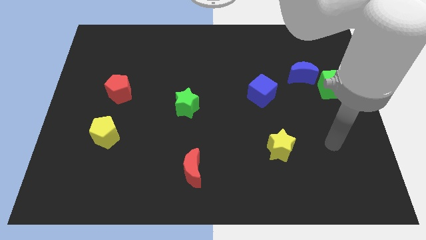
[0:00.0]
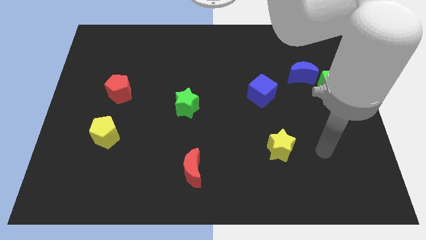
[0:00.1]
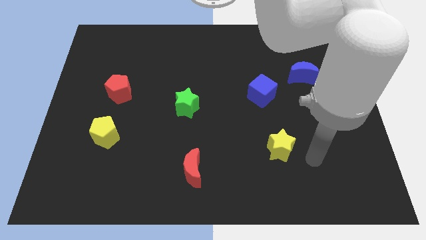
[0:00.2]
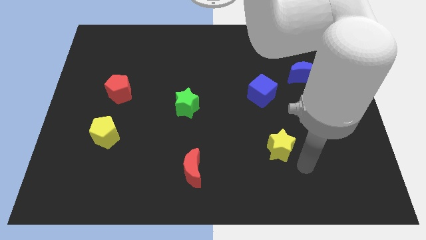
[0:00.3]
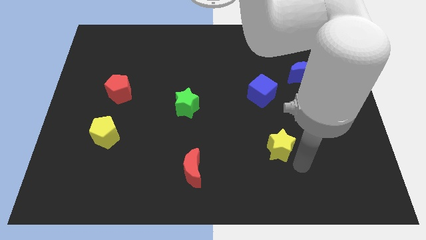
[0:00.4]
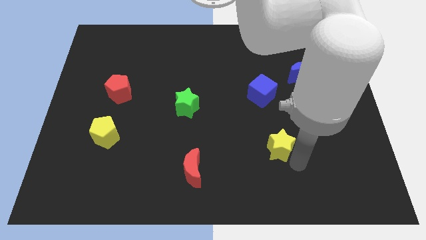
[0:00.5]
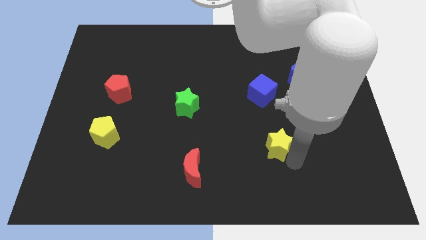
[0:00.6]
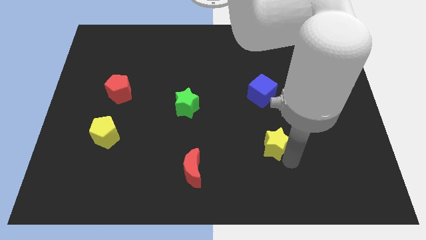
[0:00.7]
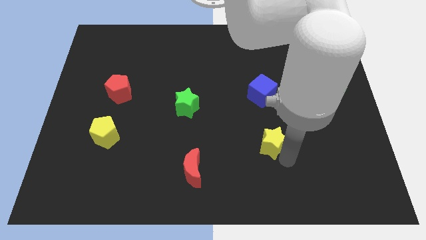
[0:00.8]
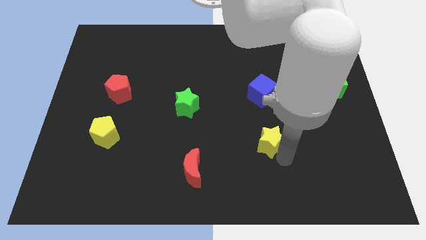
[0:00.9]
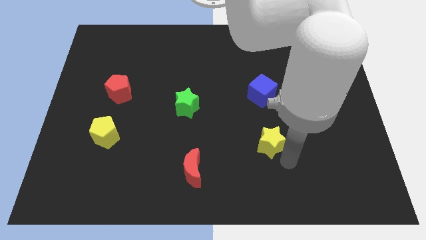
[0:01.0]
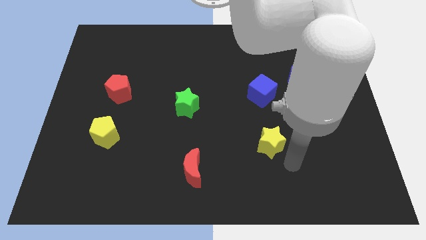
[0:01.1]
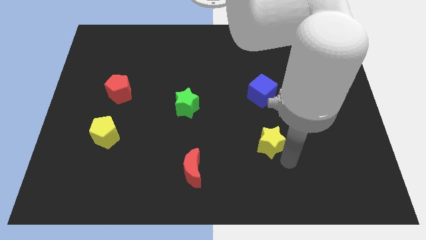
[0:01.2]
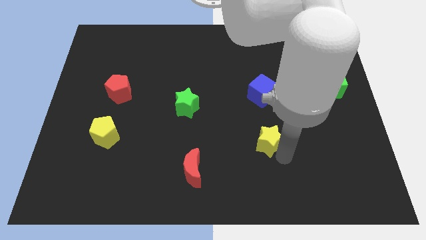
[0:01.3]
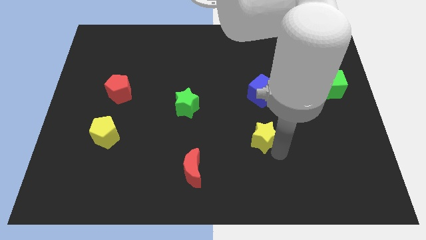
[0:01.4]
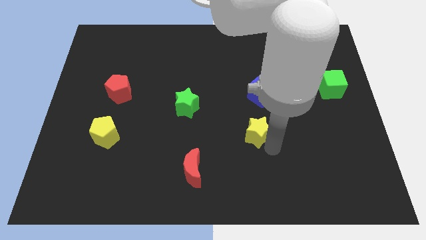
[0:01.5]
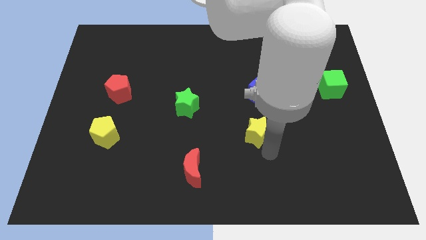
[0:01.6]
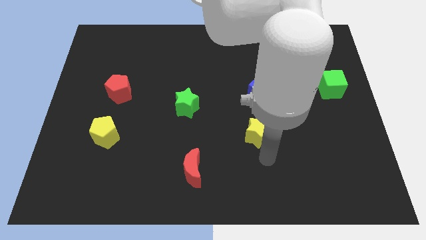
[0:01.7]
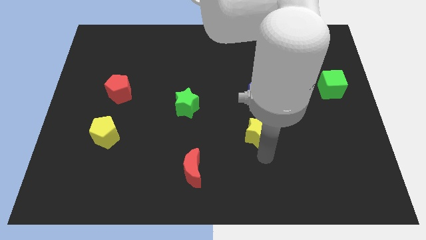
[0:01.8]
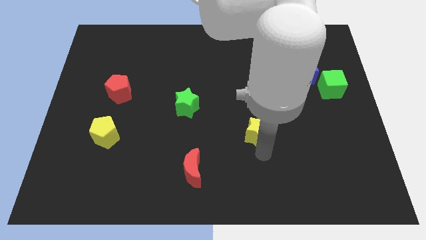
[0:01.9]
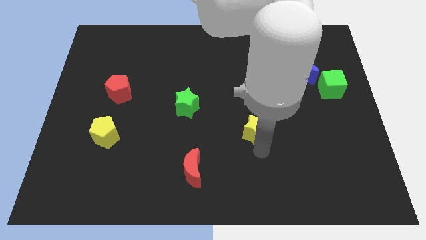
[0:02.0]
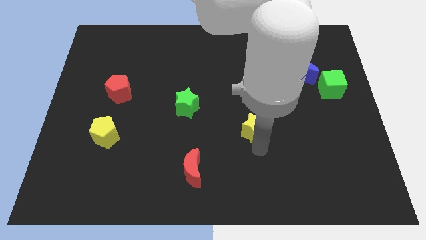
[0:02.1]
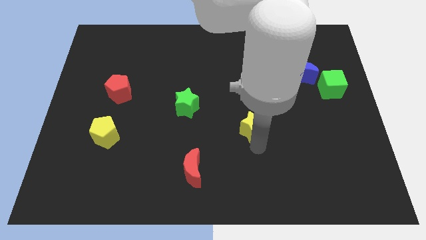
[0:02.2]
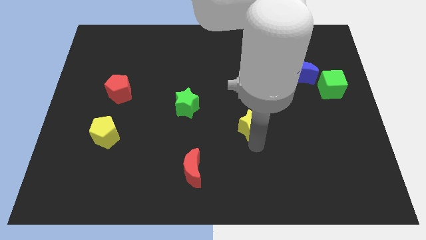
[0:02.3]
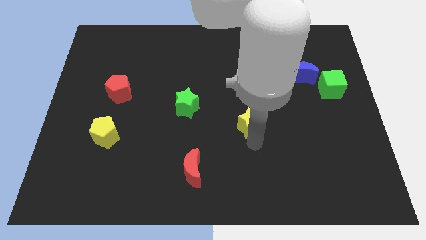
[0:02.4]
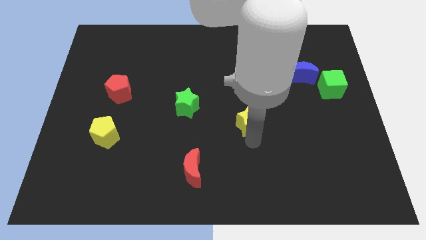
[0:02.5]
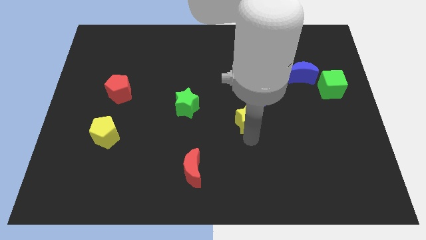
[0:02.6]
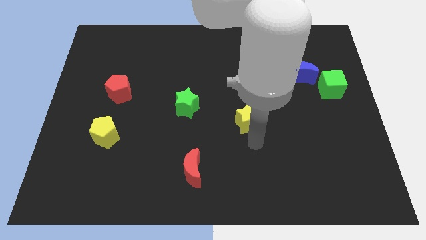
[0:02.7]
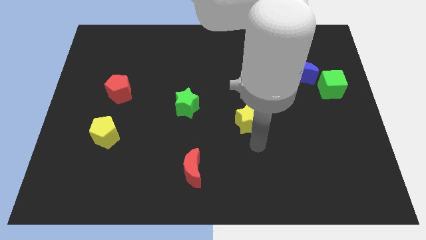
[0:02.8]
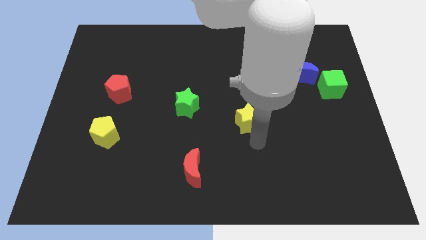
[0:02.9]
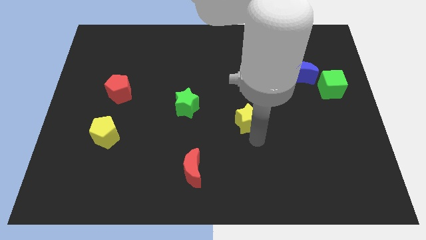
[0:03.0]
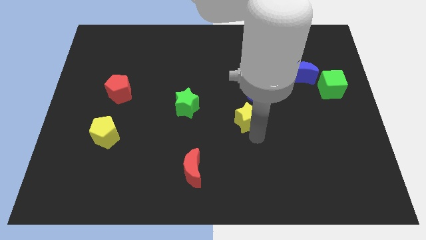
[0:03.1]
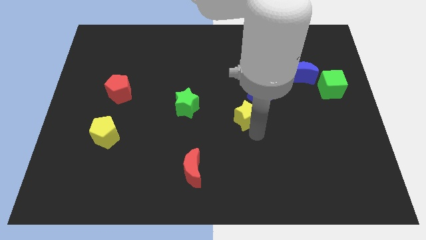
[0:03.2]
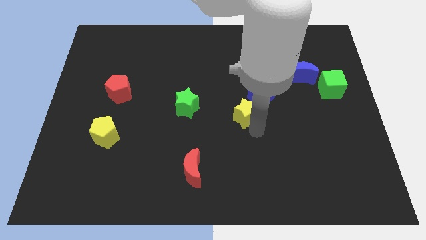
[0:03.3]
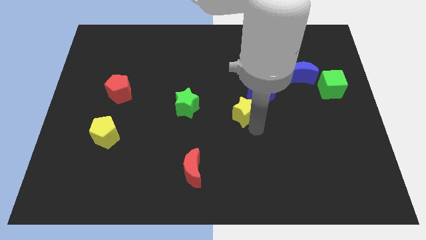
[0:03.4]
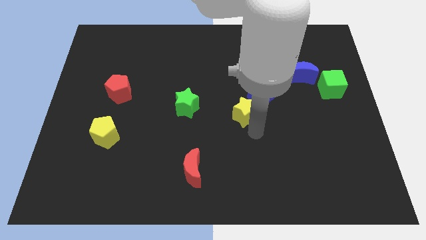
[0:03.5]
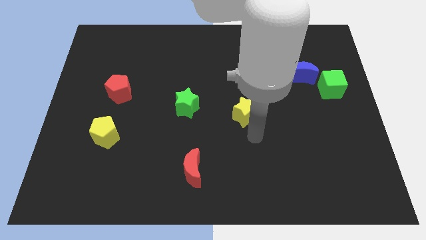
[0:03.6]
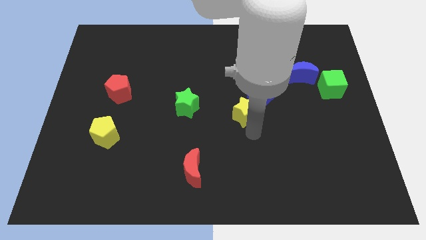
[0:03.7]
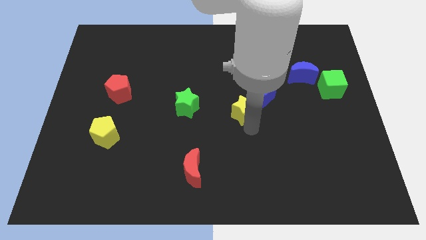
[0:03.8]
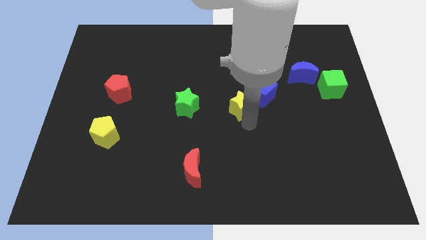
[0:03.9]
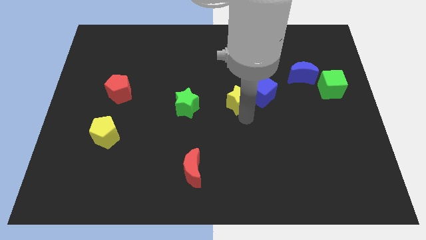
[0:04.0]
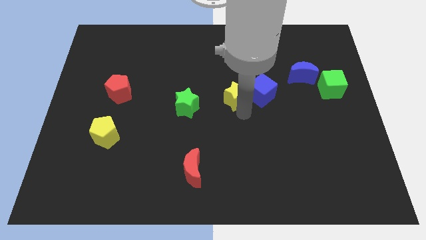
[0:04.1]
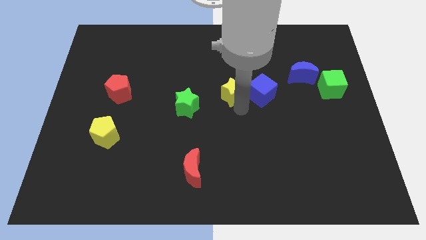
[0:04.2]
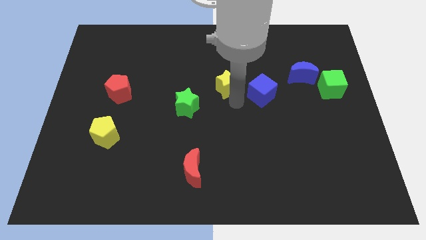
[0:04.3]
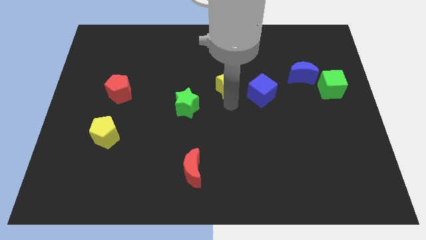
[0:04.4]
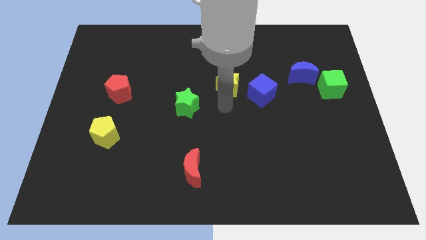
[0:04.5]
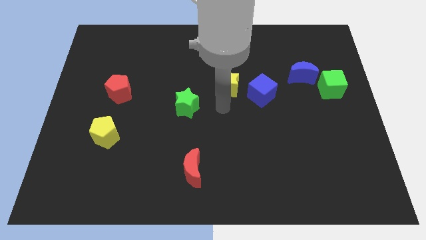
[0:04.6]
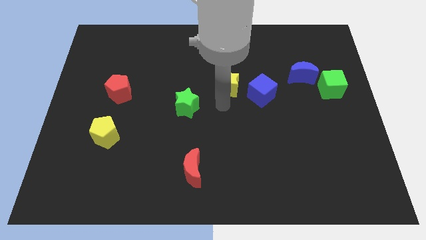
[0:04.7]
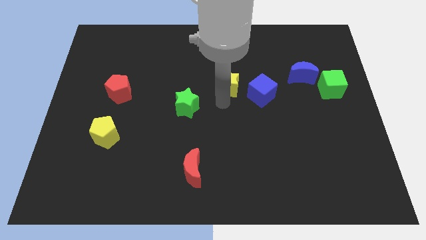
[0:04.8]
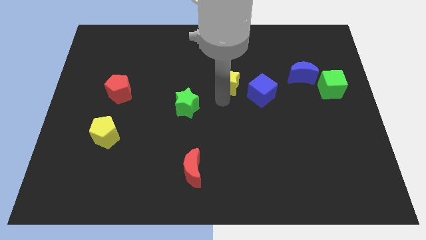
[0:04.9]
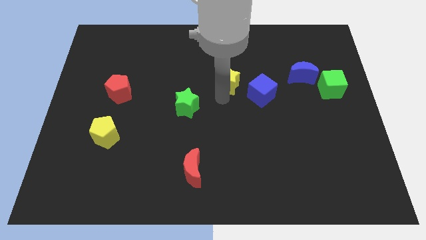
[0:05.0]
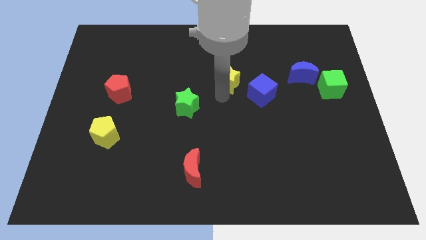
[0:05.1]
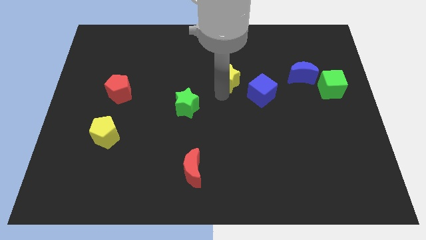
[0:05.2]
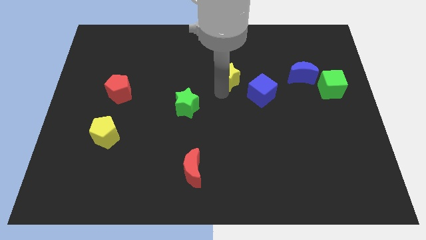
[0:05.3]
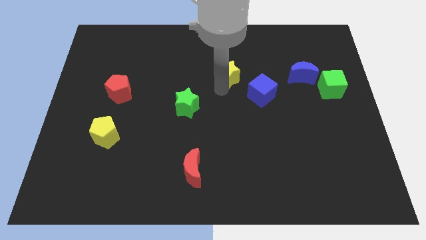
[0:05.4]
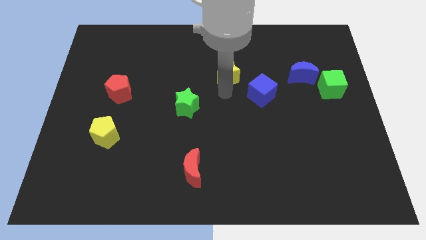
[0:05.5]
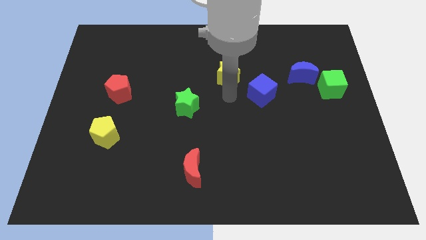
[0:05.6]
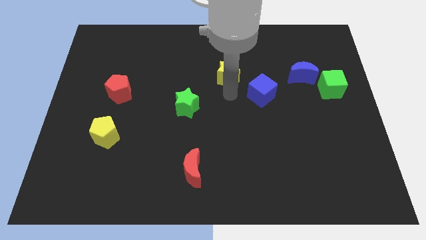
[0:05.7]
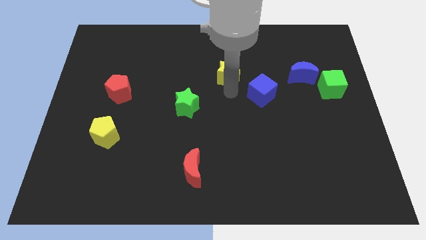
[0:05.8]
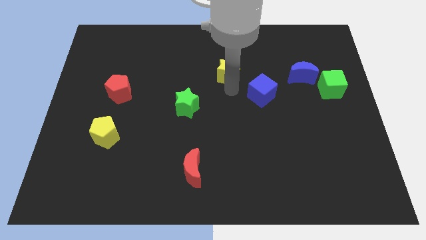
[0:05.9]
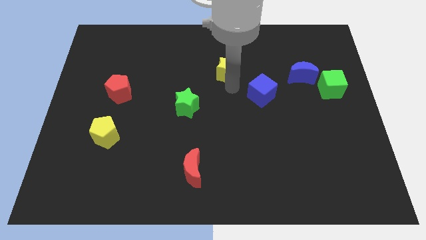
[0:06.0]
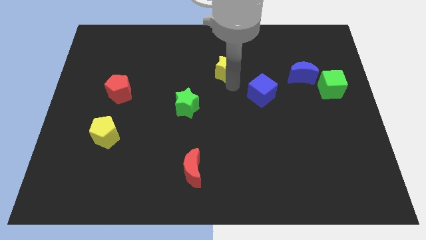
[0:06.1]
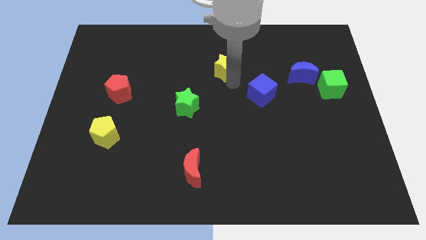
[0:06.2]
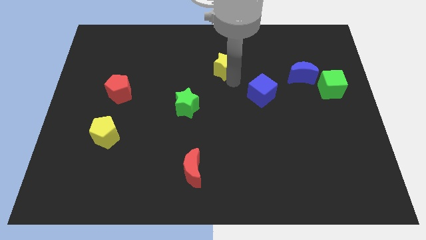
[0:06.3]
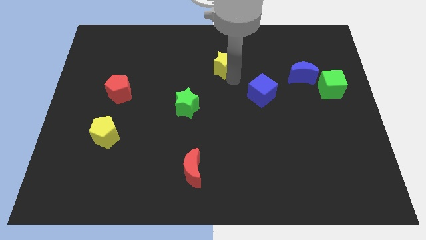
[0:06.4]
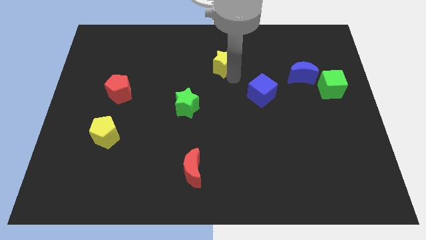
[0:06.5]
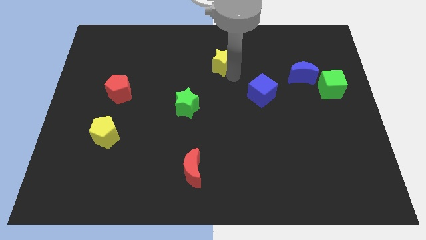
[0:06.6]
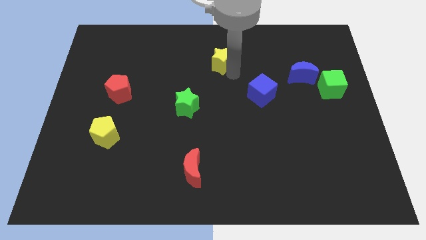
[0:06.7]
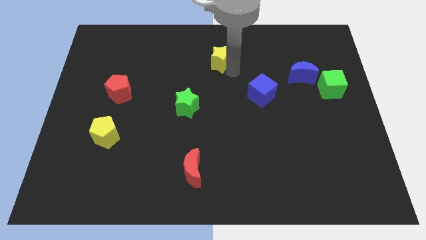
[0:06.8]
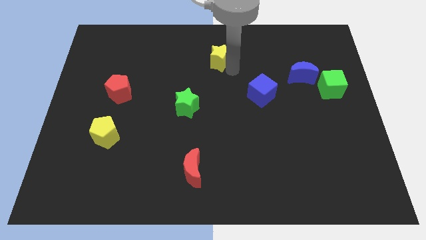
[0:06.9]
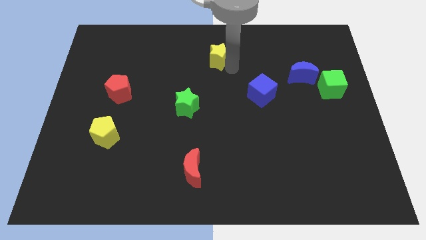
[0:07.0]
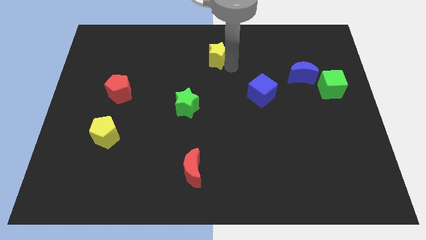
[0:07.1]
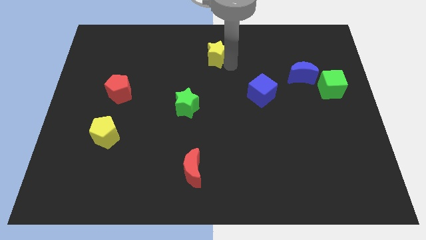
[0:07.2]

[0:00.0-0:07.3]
put the yellow star to the top side
